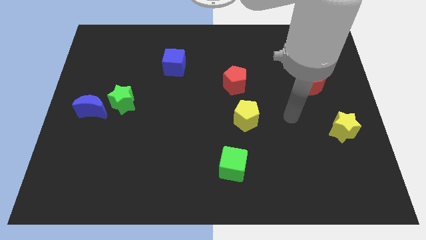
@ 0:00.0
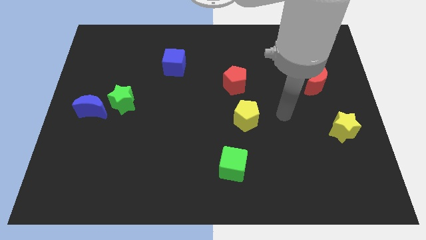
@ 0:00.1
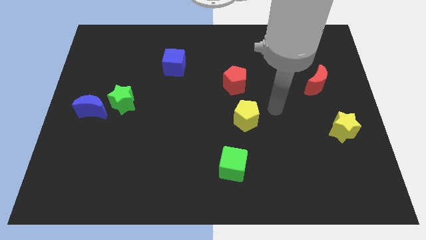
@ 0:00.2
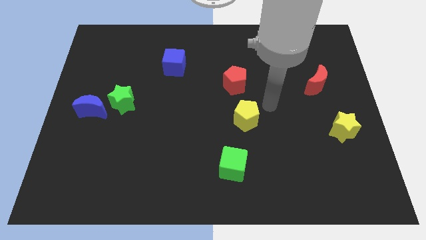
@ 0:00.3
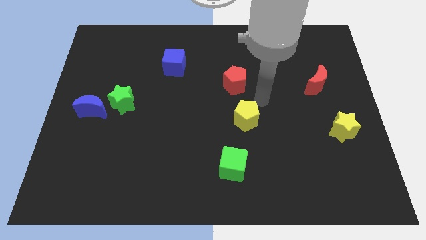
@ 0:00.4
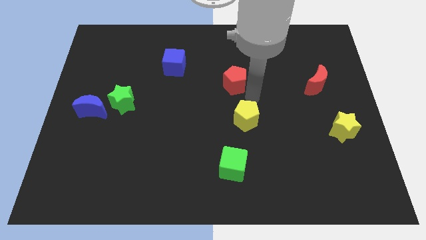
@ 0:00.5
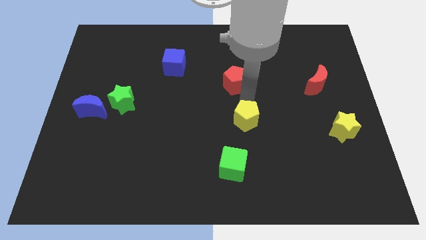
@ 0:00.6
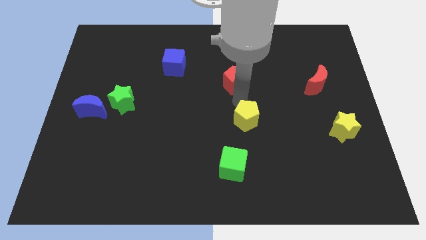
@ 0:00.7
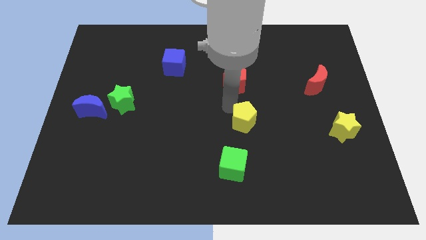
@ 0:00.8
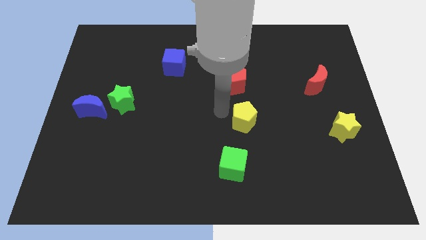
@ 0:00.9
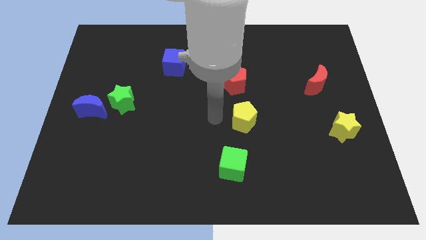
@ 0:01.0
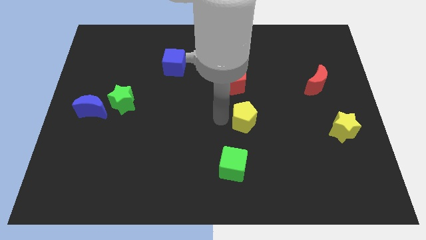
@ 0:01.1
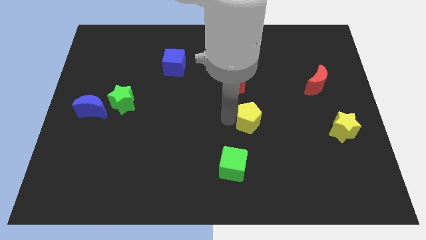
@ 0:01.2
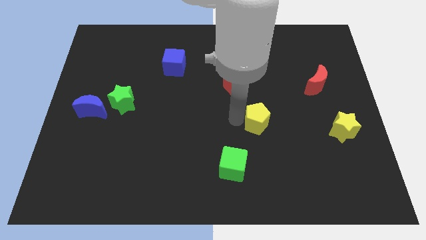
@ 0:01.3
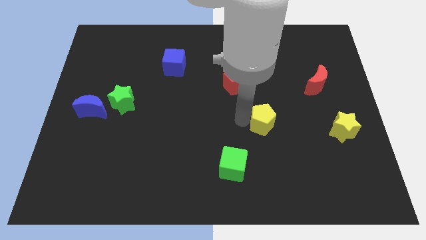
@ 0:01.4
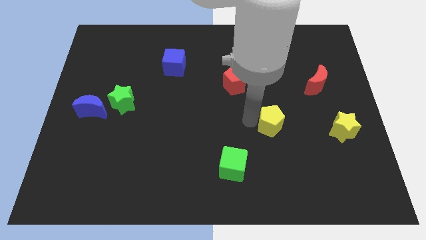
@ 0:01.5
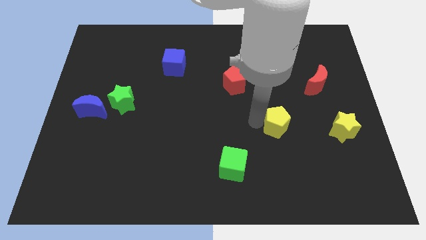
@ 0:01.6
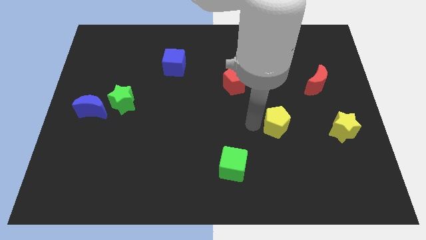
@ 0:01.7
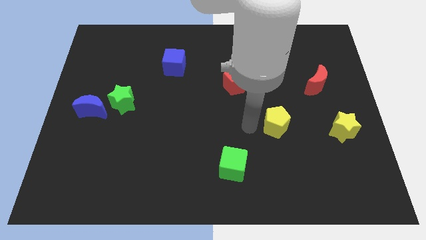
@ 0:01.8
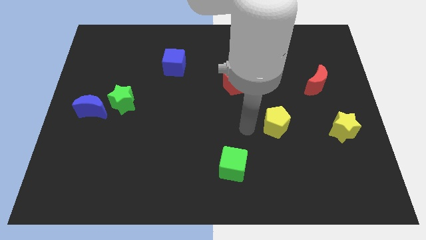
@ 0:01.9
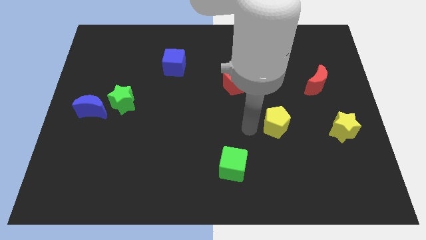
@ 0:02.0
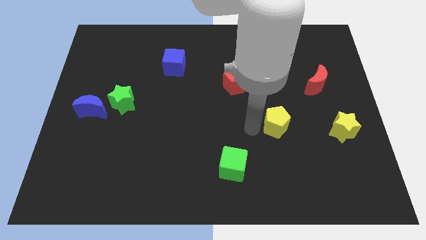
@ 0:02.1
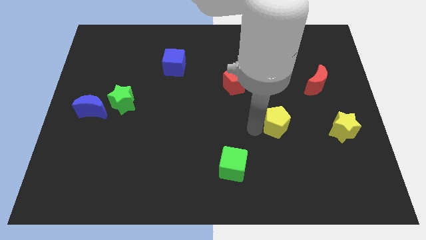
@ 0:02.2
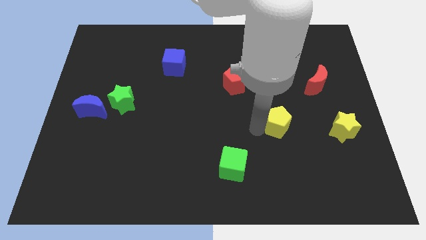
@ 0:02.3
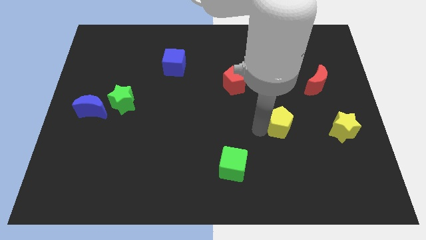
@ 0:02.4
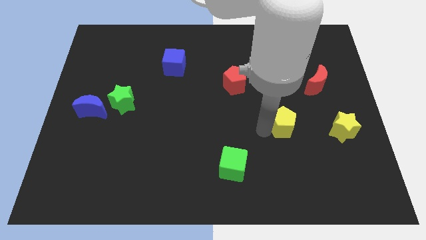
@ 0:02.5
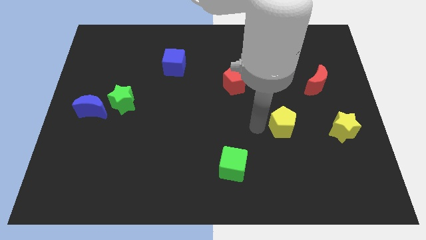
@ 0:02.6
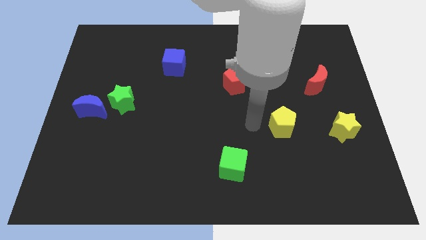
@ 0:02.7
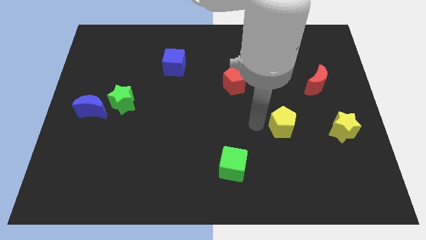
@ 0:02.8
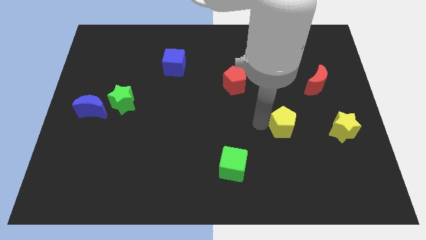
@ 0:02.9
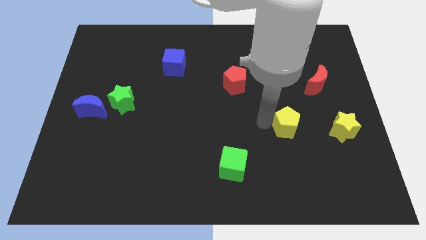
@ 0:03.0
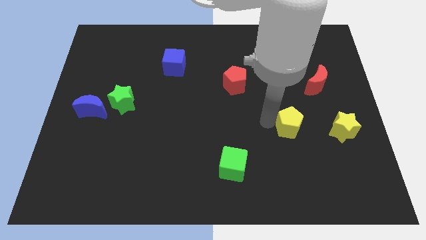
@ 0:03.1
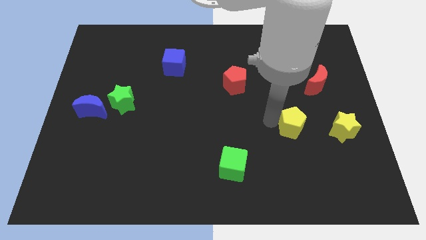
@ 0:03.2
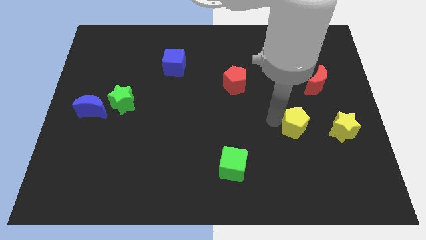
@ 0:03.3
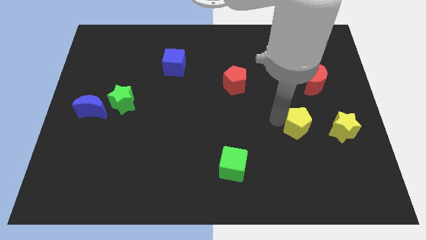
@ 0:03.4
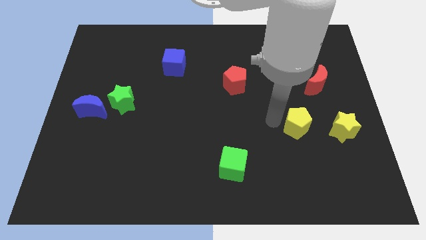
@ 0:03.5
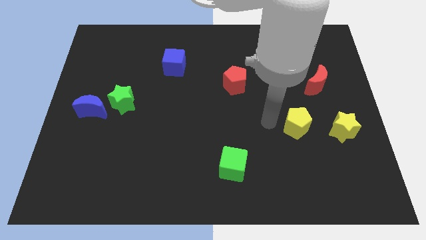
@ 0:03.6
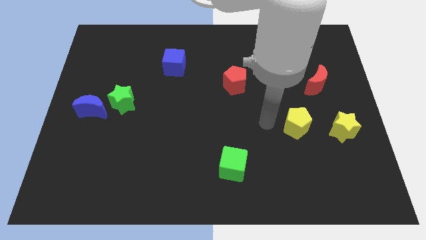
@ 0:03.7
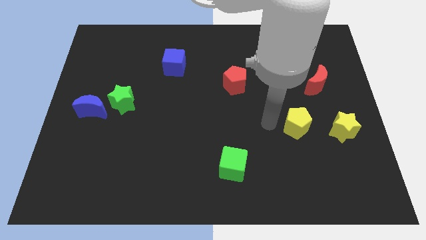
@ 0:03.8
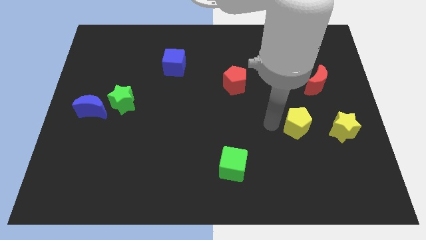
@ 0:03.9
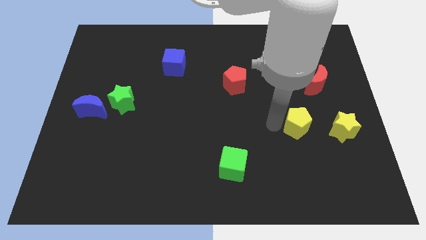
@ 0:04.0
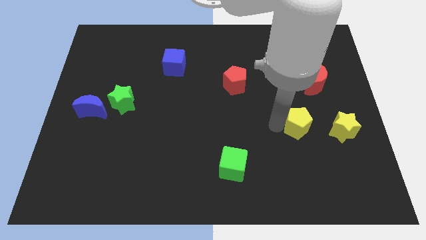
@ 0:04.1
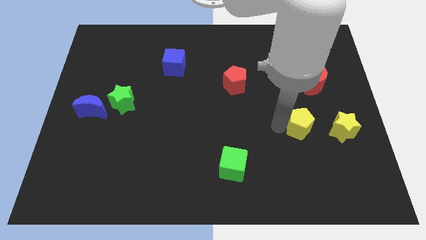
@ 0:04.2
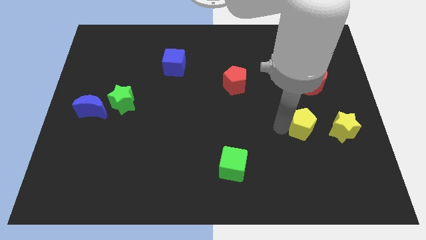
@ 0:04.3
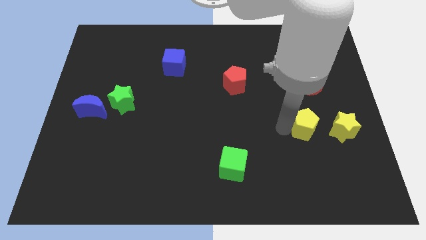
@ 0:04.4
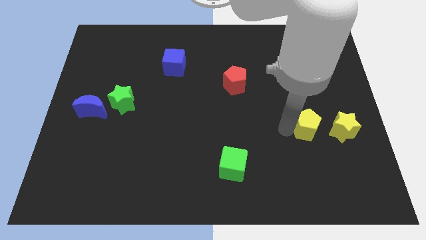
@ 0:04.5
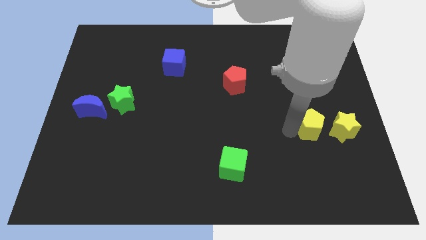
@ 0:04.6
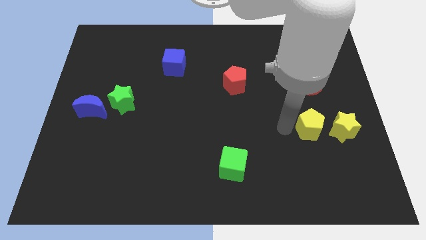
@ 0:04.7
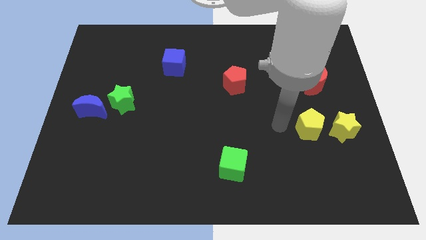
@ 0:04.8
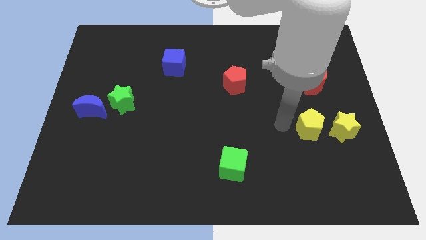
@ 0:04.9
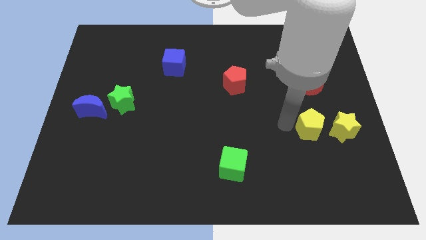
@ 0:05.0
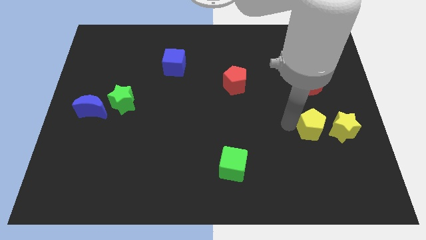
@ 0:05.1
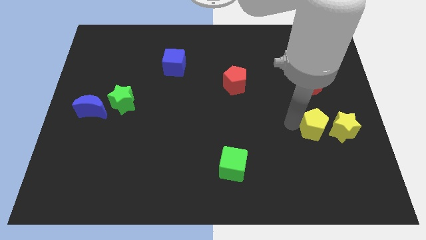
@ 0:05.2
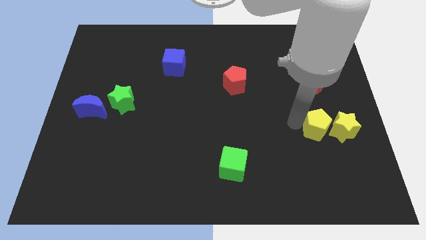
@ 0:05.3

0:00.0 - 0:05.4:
push the yellow pentagon towards the yellow star

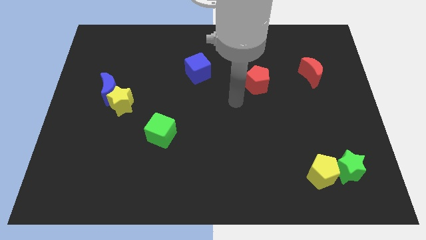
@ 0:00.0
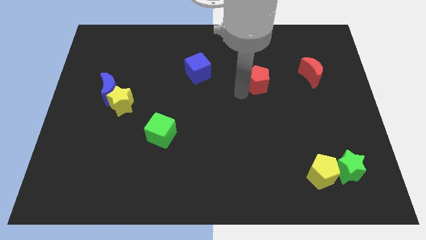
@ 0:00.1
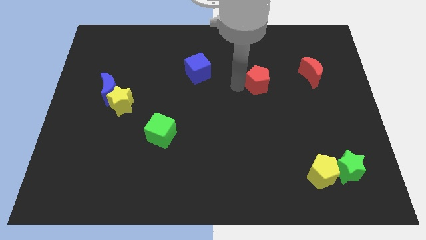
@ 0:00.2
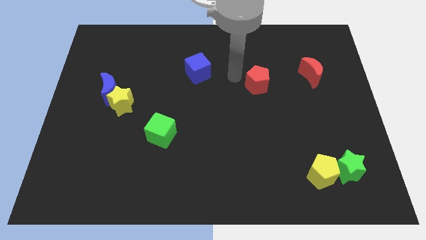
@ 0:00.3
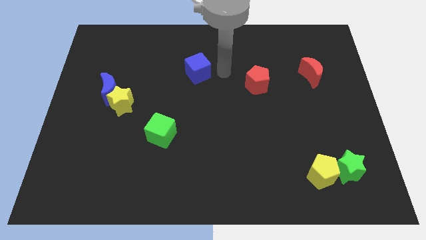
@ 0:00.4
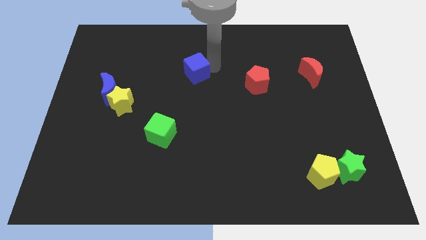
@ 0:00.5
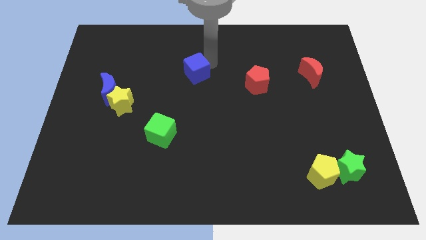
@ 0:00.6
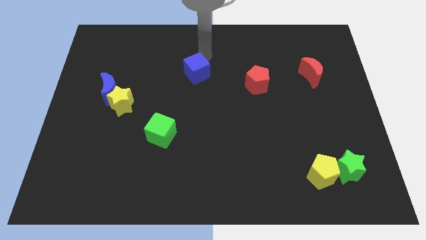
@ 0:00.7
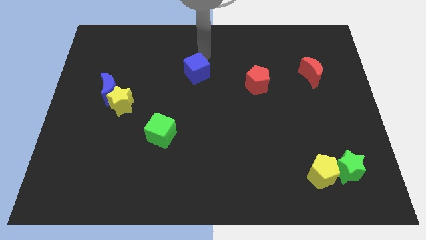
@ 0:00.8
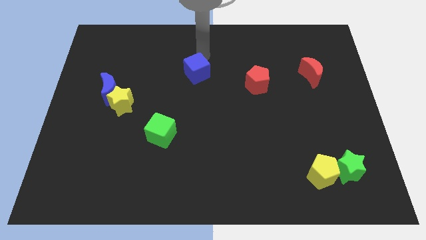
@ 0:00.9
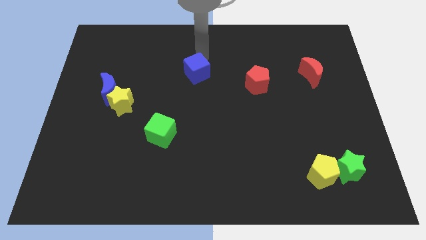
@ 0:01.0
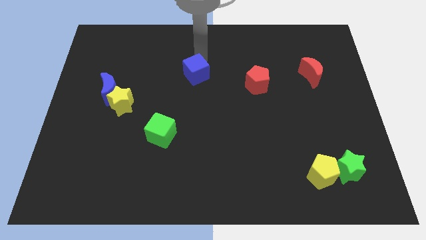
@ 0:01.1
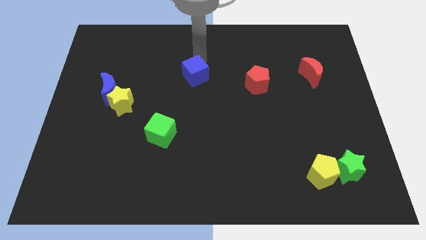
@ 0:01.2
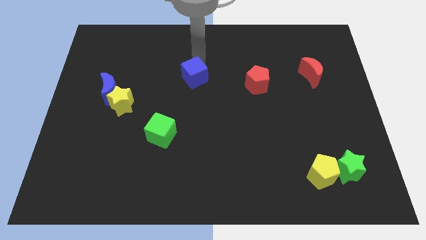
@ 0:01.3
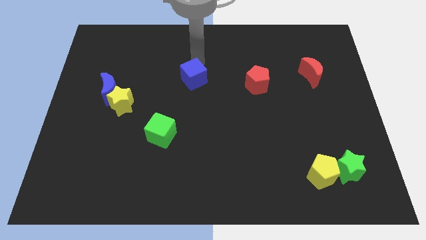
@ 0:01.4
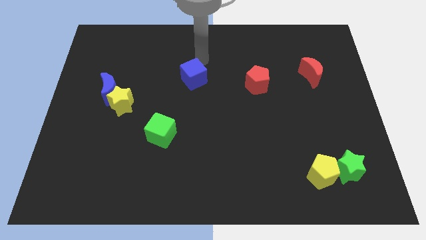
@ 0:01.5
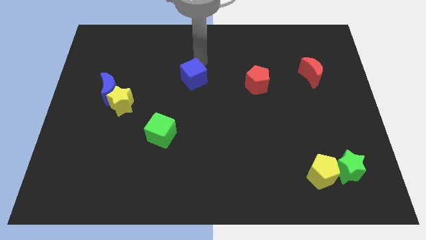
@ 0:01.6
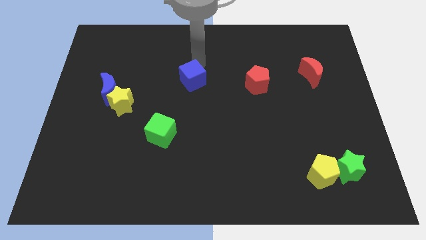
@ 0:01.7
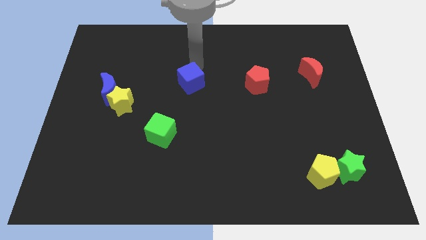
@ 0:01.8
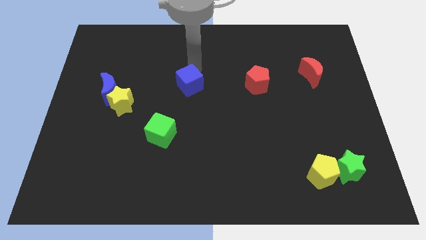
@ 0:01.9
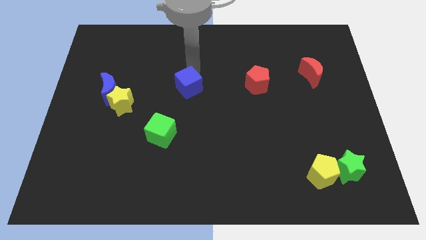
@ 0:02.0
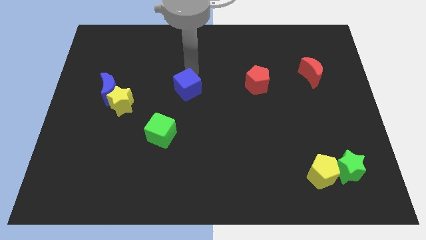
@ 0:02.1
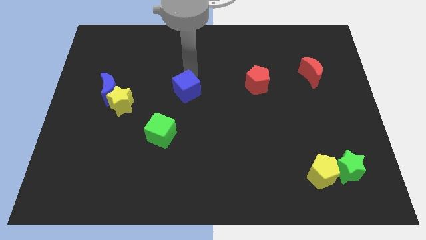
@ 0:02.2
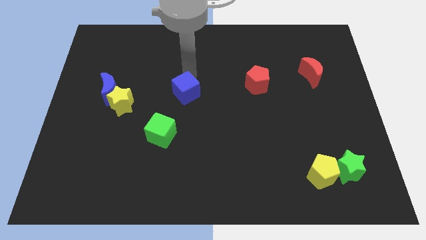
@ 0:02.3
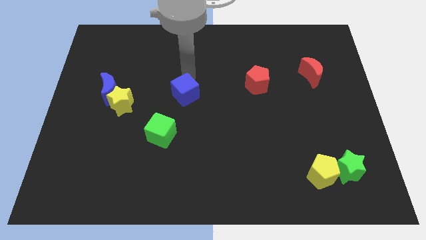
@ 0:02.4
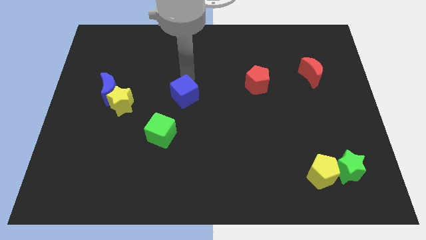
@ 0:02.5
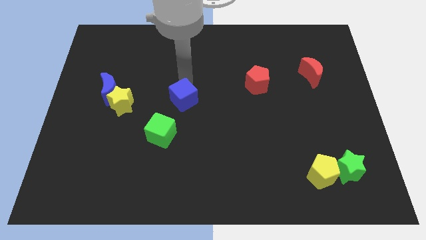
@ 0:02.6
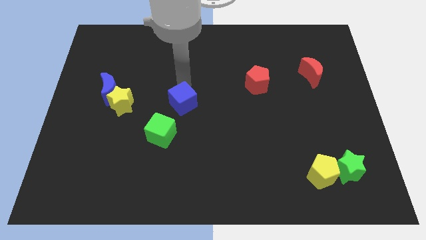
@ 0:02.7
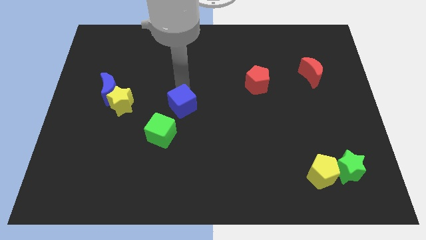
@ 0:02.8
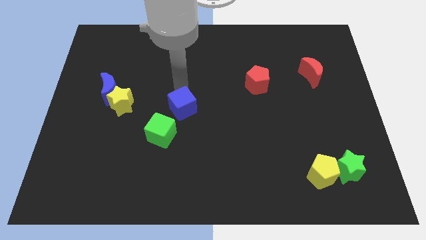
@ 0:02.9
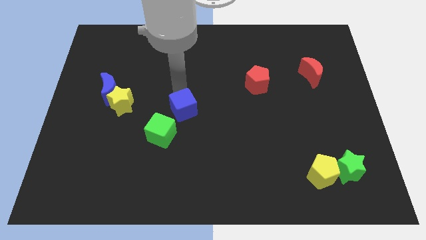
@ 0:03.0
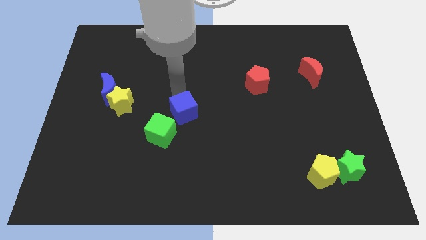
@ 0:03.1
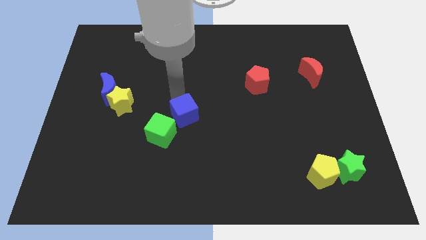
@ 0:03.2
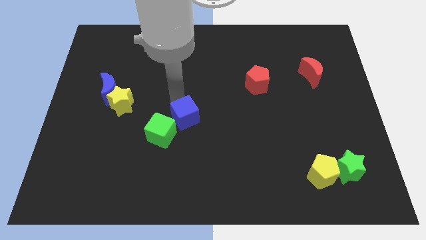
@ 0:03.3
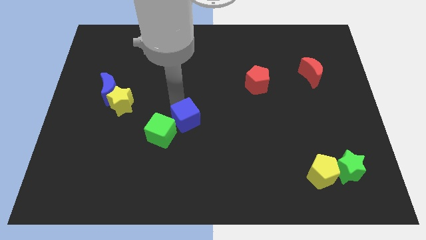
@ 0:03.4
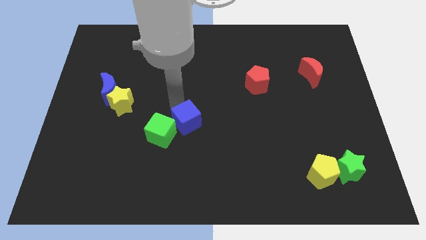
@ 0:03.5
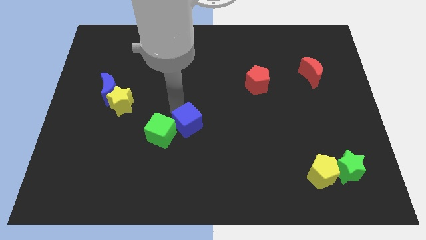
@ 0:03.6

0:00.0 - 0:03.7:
push the blue cube to the green cube
